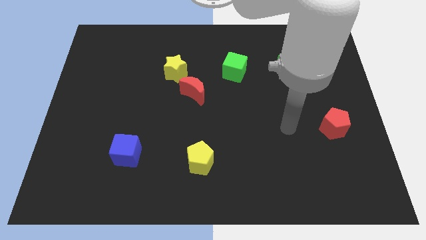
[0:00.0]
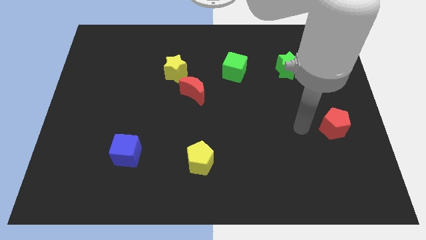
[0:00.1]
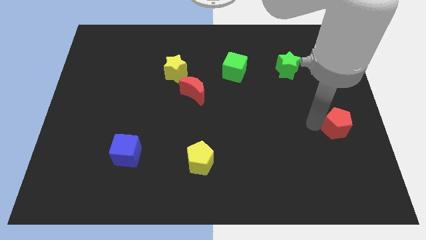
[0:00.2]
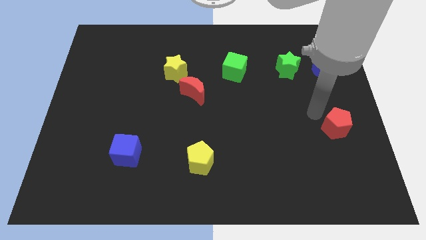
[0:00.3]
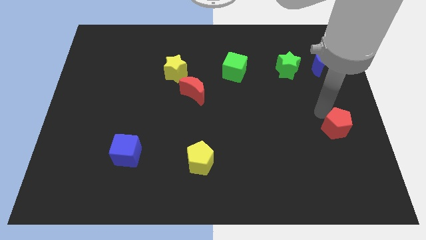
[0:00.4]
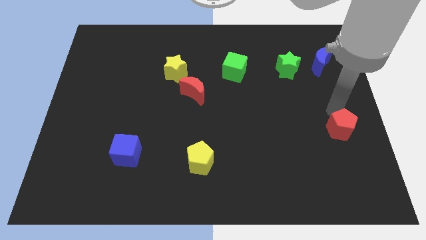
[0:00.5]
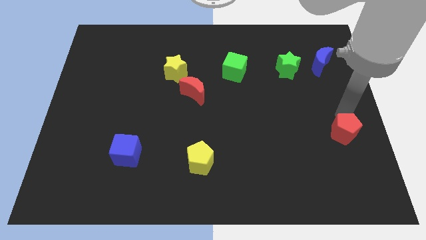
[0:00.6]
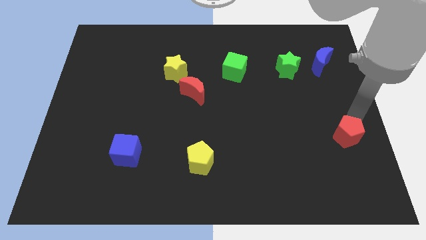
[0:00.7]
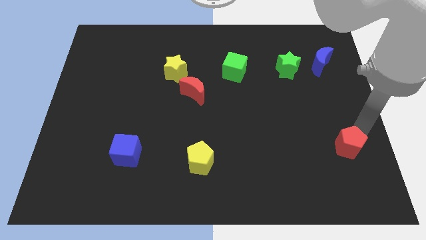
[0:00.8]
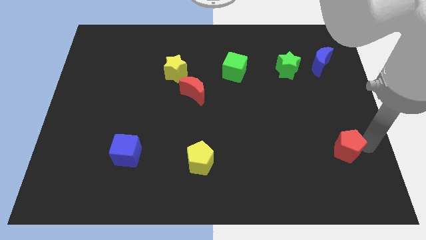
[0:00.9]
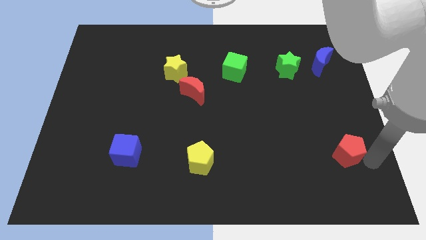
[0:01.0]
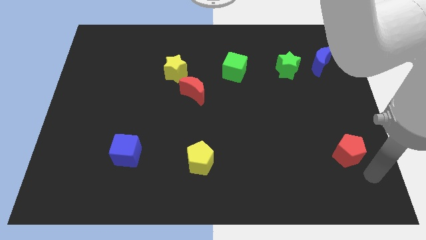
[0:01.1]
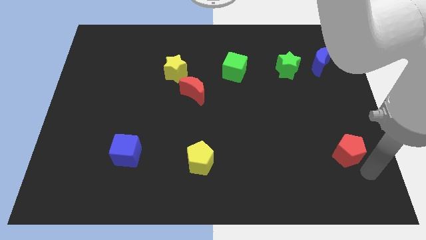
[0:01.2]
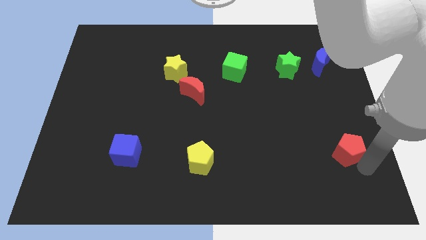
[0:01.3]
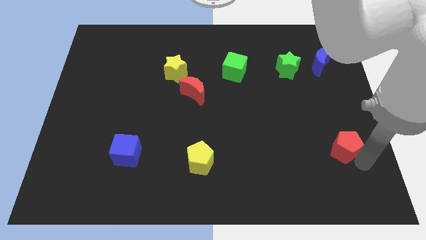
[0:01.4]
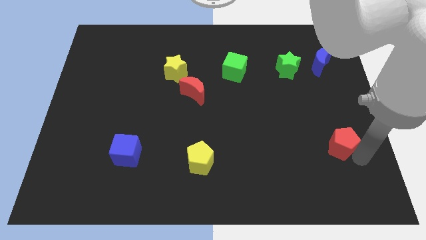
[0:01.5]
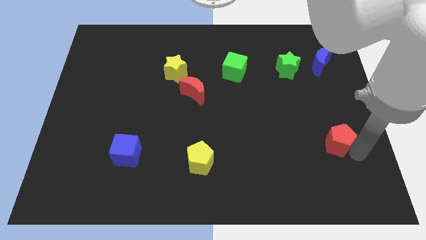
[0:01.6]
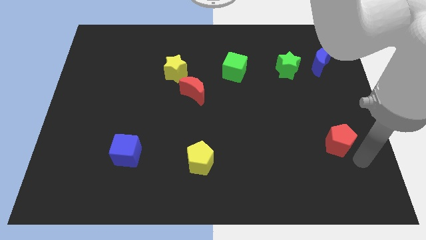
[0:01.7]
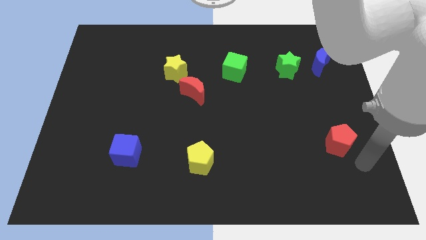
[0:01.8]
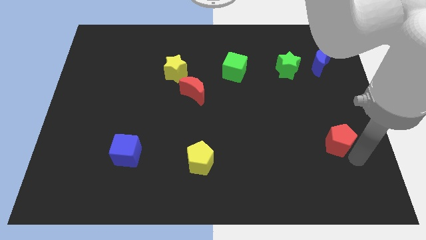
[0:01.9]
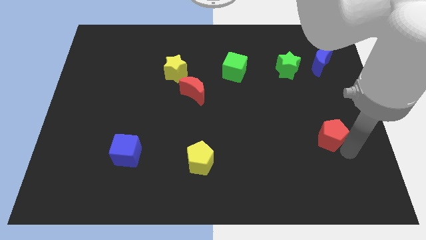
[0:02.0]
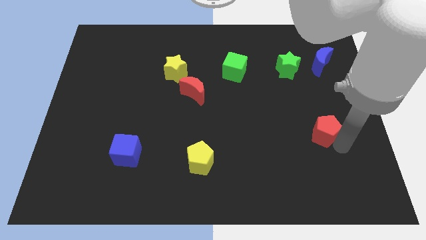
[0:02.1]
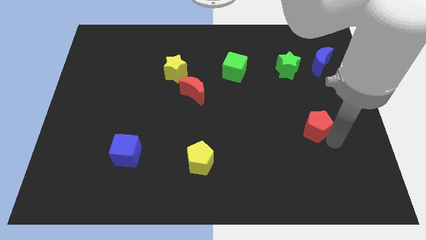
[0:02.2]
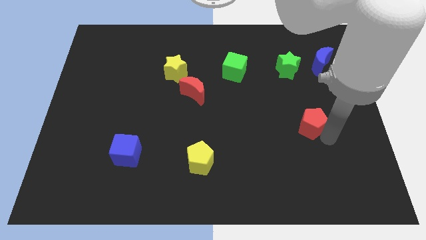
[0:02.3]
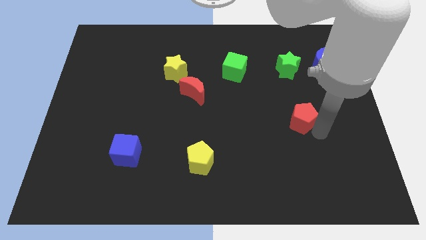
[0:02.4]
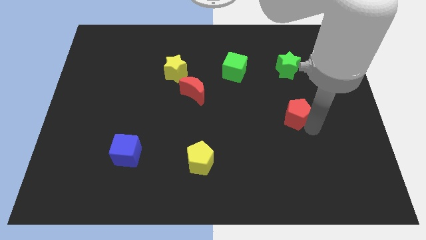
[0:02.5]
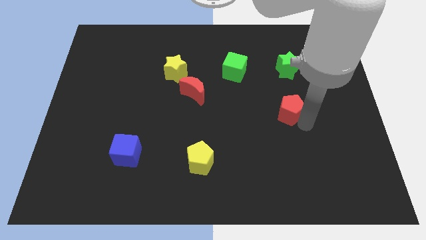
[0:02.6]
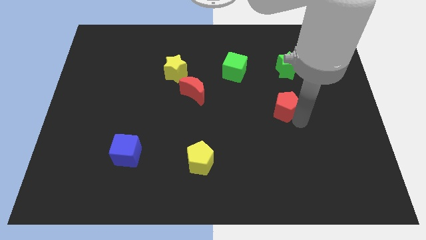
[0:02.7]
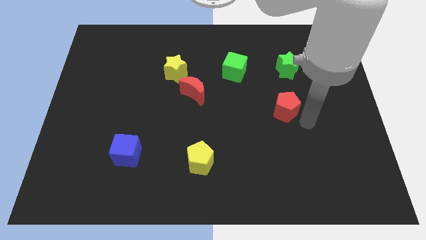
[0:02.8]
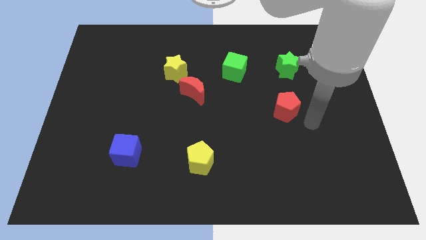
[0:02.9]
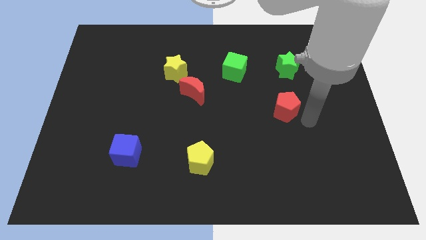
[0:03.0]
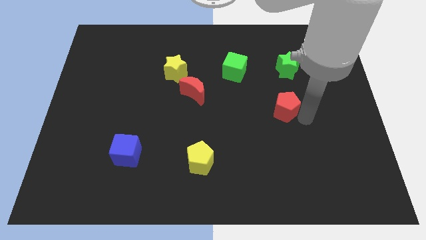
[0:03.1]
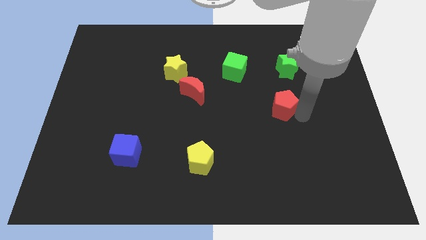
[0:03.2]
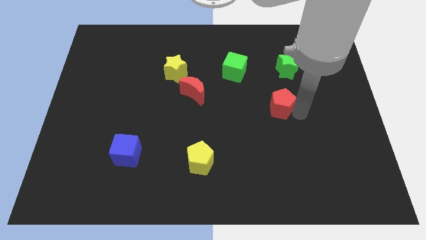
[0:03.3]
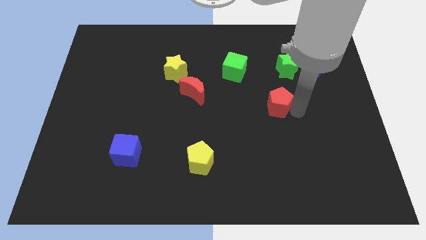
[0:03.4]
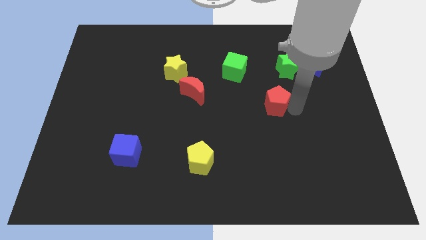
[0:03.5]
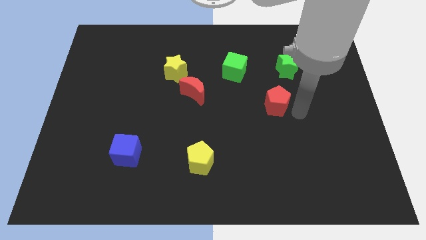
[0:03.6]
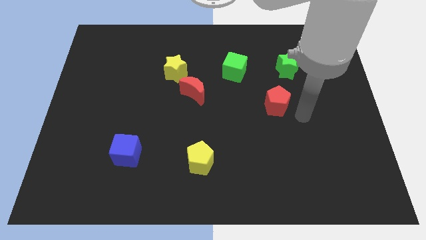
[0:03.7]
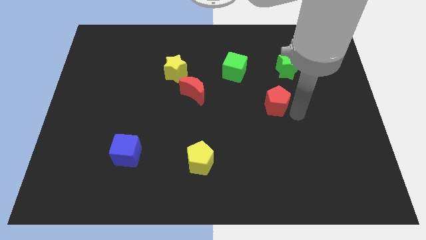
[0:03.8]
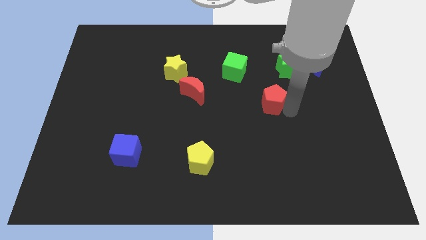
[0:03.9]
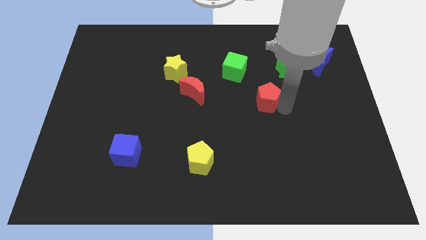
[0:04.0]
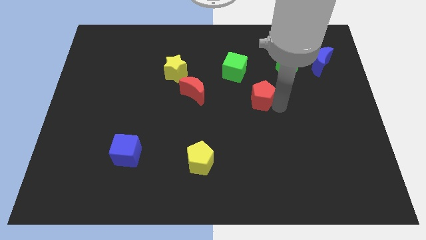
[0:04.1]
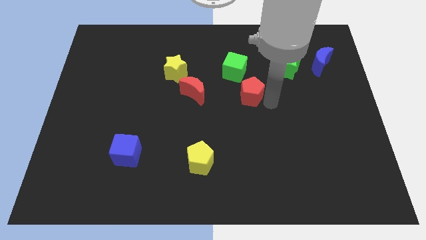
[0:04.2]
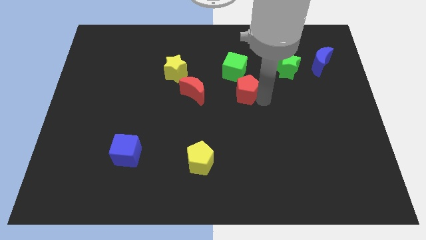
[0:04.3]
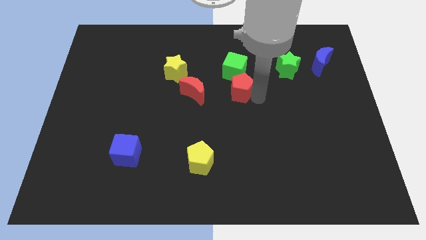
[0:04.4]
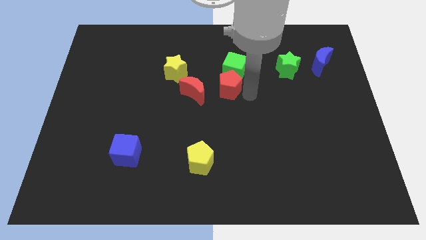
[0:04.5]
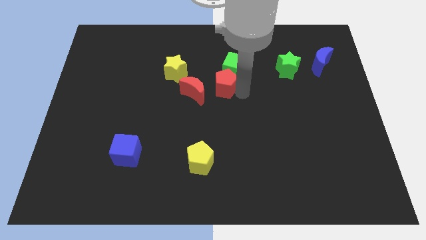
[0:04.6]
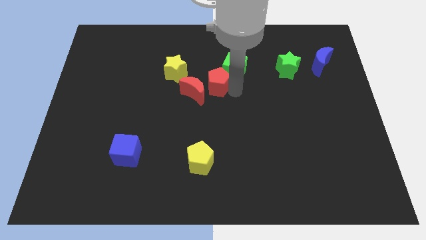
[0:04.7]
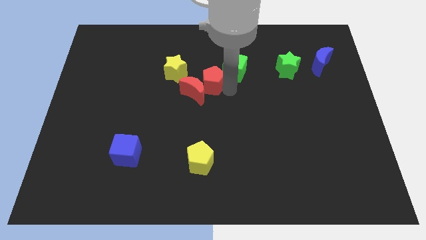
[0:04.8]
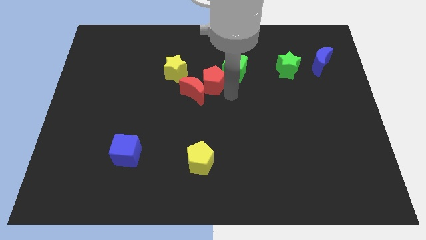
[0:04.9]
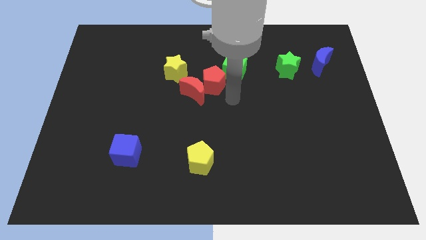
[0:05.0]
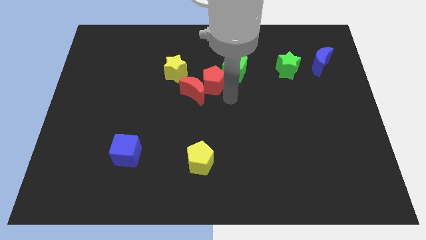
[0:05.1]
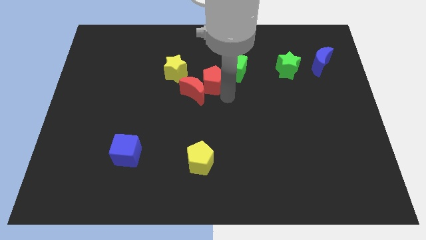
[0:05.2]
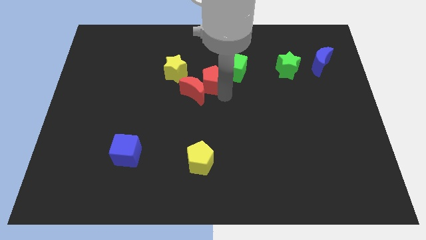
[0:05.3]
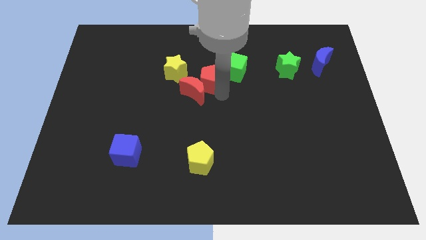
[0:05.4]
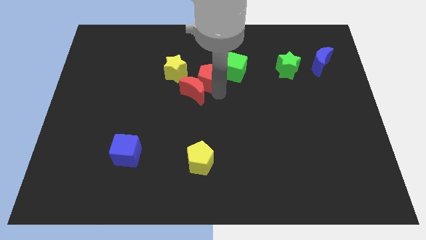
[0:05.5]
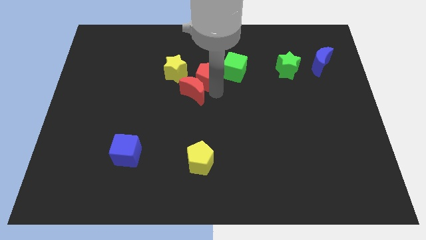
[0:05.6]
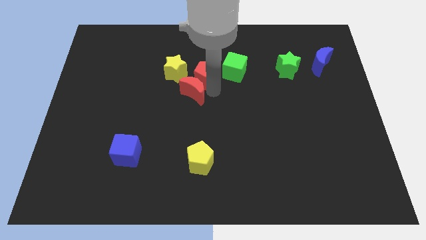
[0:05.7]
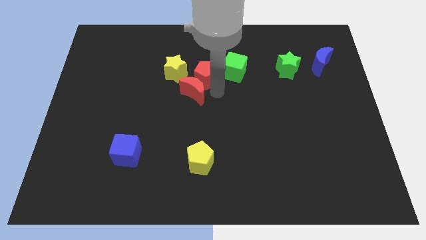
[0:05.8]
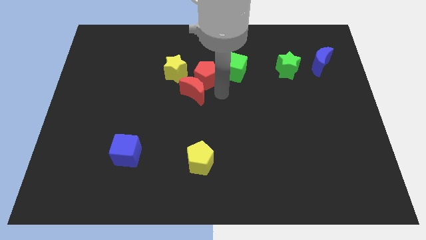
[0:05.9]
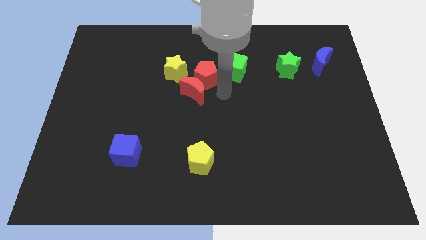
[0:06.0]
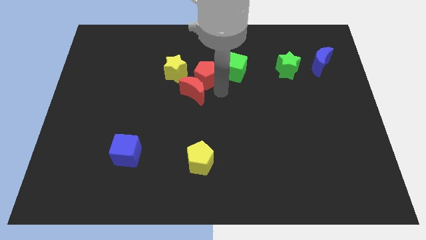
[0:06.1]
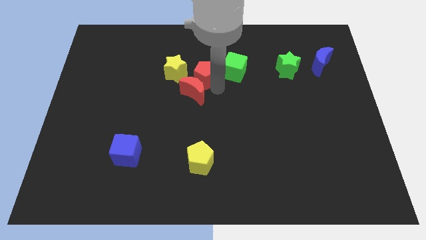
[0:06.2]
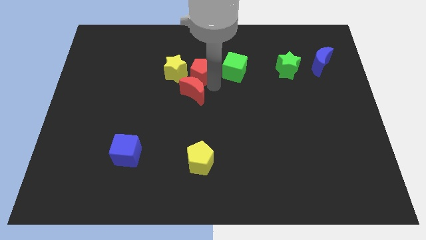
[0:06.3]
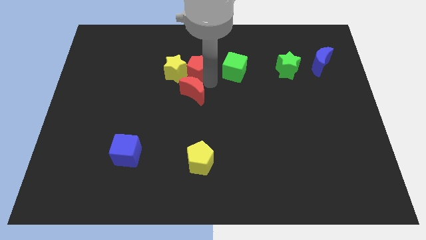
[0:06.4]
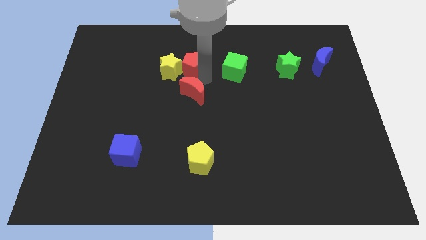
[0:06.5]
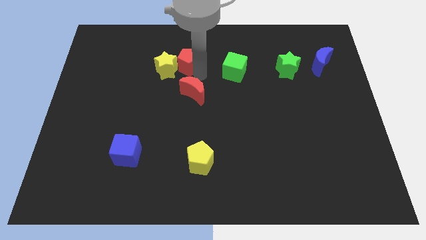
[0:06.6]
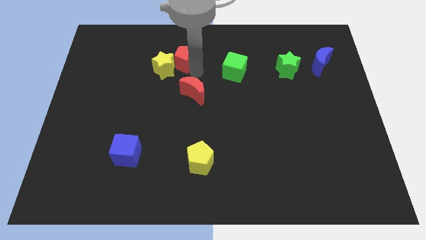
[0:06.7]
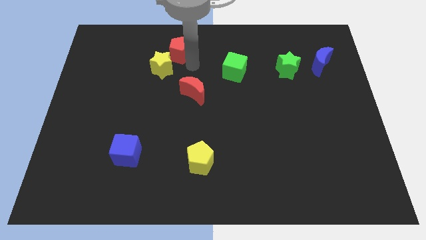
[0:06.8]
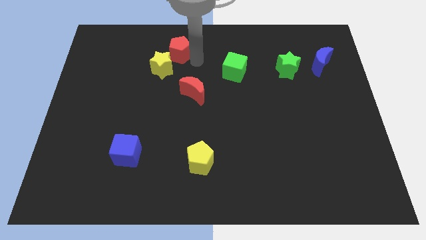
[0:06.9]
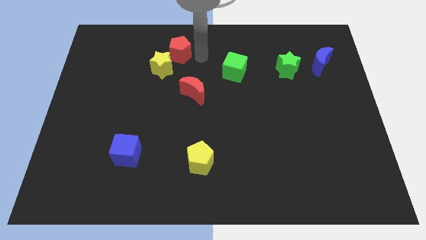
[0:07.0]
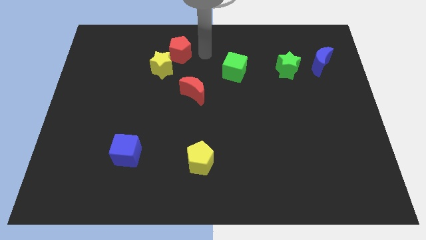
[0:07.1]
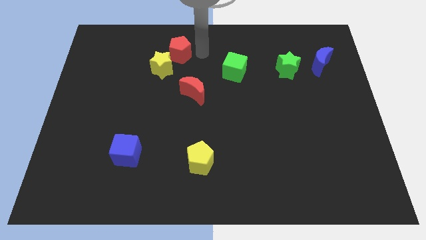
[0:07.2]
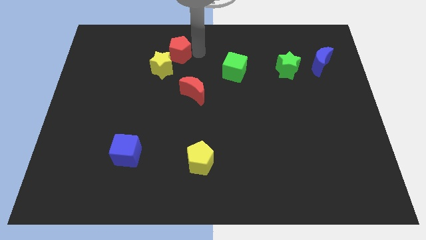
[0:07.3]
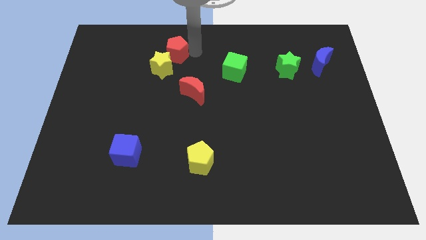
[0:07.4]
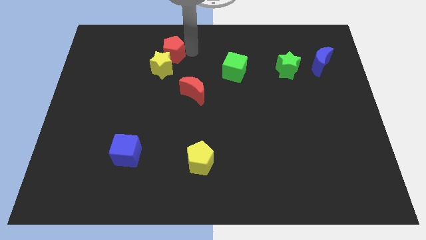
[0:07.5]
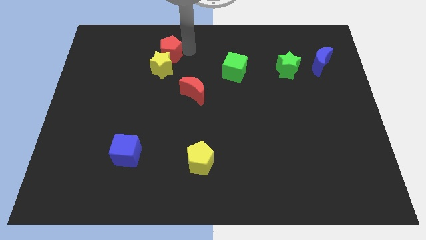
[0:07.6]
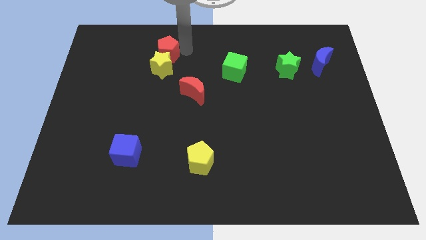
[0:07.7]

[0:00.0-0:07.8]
slide the red pentagon to the top left side of the yellow star

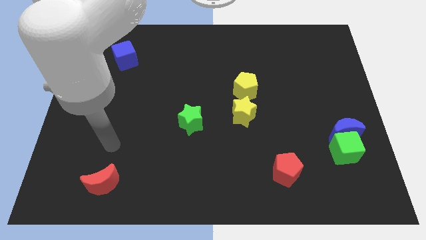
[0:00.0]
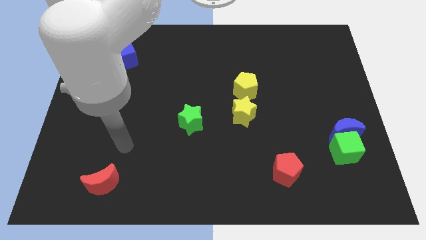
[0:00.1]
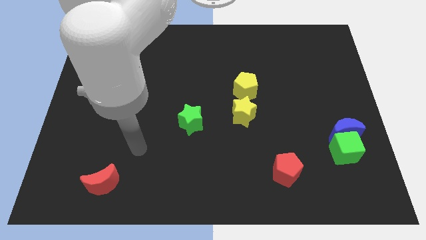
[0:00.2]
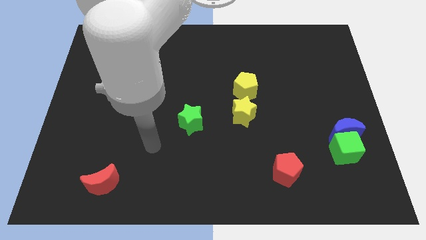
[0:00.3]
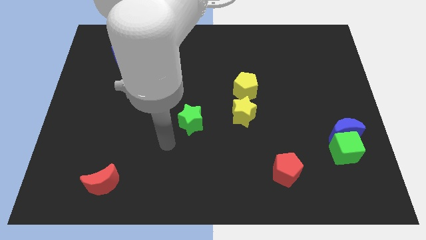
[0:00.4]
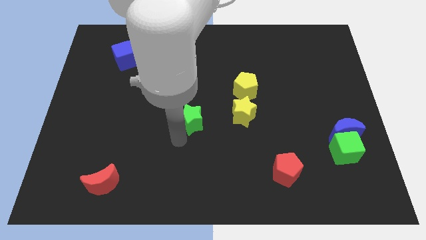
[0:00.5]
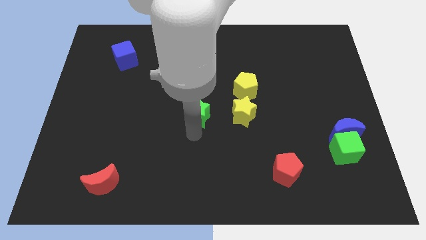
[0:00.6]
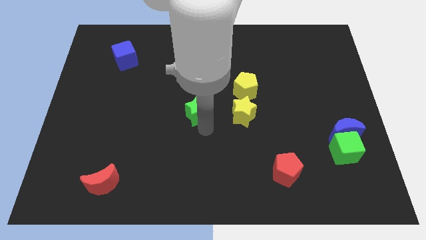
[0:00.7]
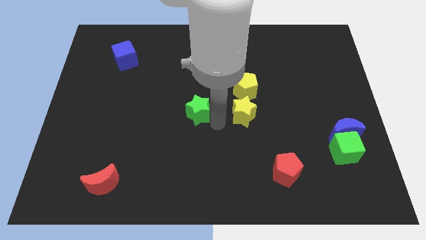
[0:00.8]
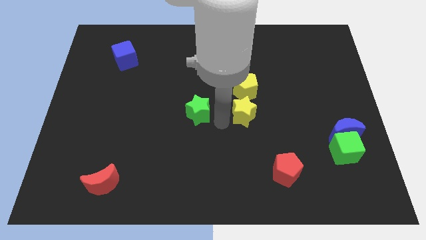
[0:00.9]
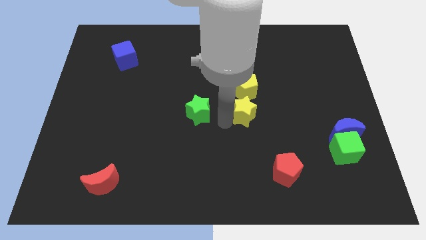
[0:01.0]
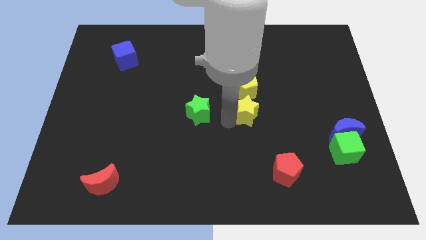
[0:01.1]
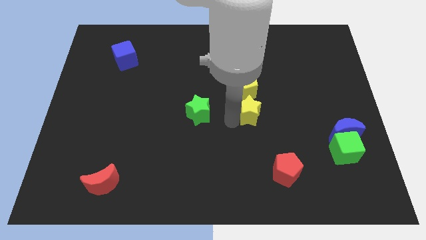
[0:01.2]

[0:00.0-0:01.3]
move the yellow star to the bottom right of the yellow pentagon
